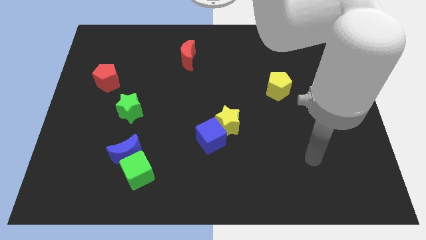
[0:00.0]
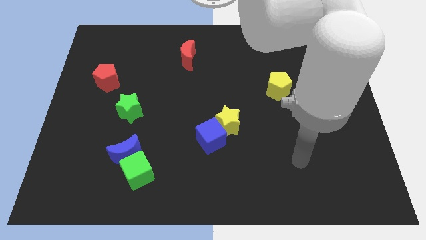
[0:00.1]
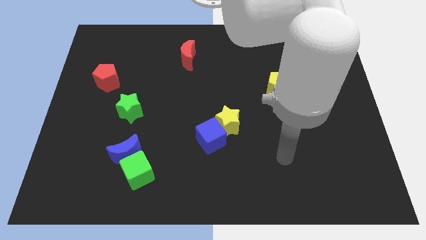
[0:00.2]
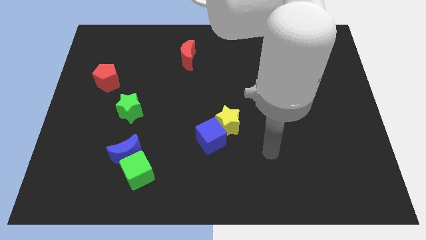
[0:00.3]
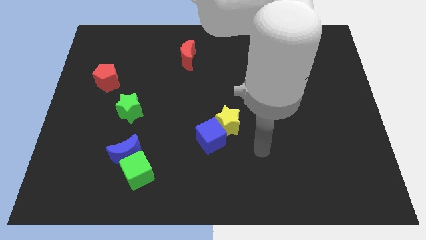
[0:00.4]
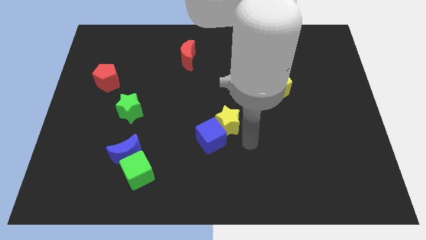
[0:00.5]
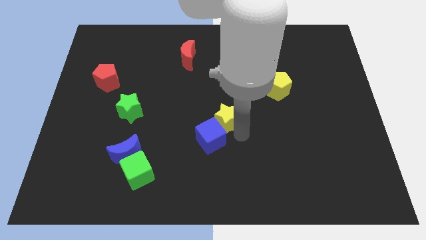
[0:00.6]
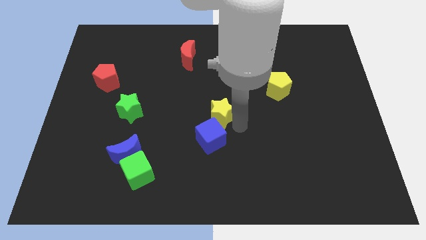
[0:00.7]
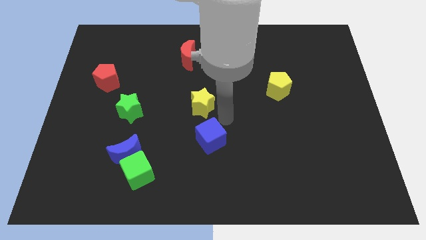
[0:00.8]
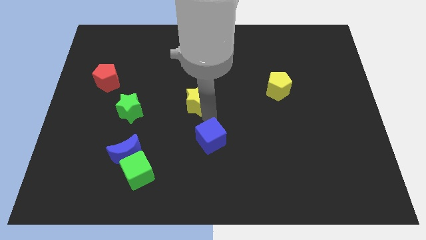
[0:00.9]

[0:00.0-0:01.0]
separate the blue cube from the yellow star

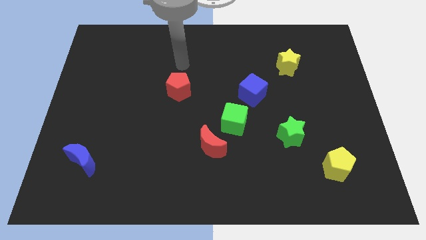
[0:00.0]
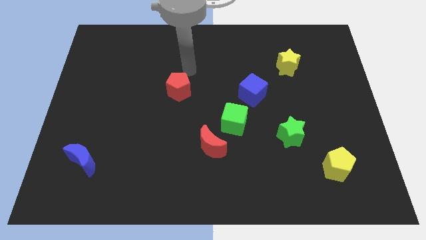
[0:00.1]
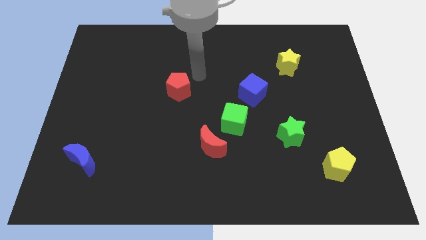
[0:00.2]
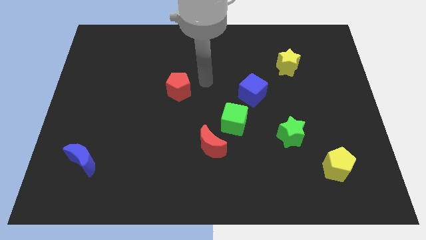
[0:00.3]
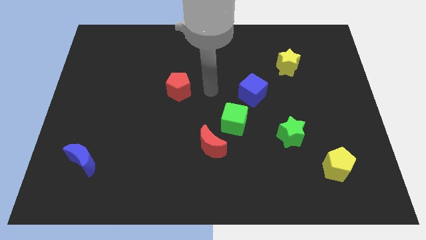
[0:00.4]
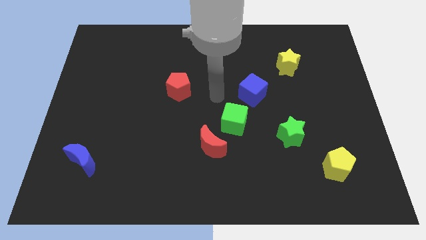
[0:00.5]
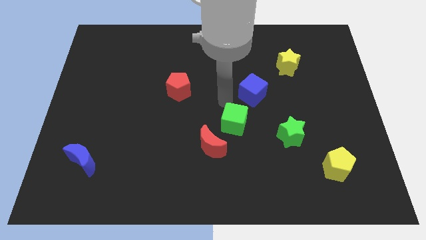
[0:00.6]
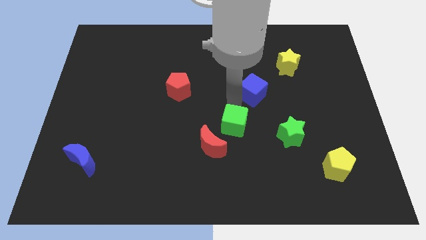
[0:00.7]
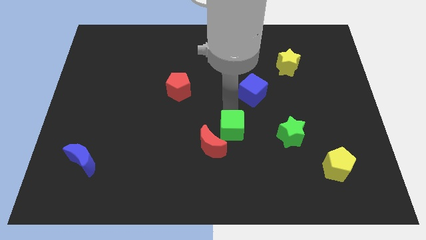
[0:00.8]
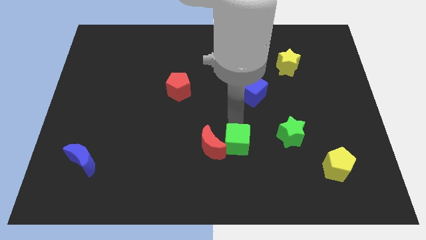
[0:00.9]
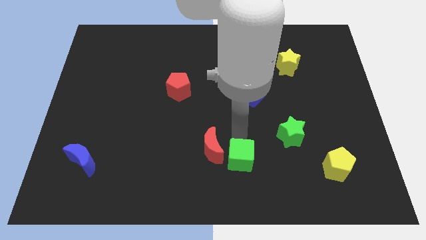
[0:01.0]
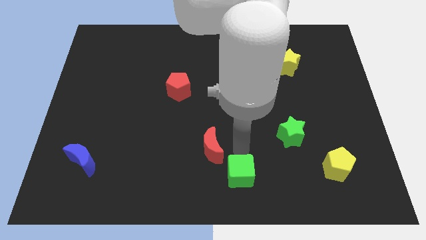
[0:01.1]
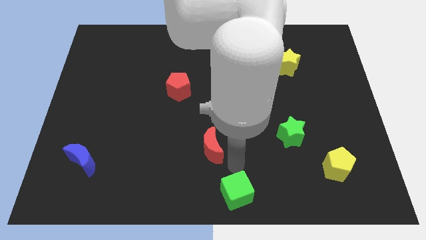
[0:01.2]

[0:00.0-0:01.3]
pull the red moon apart from the green cube

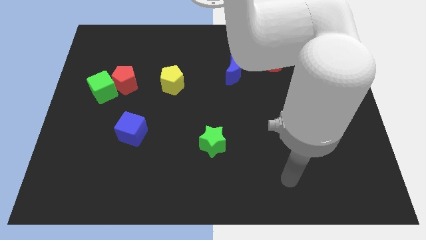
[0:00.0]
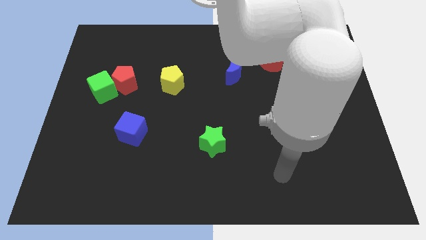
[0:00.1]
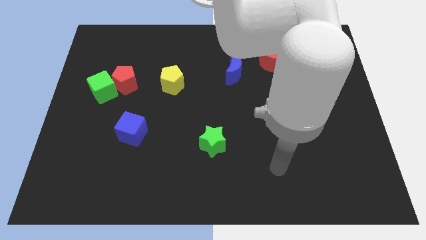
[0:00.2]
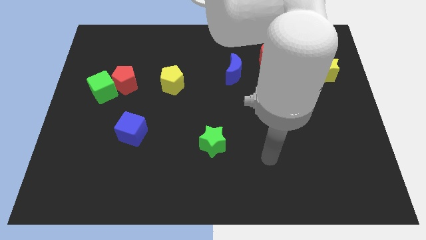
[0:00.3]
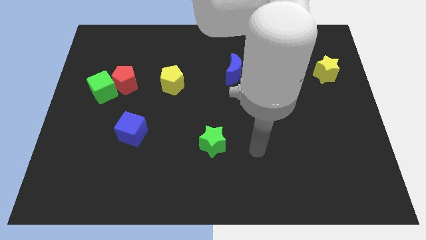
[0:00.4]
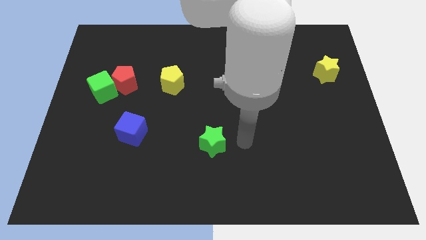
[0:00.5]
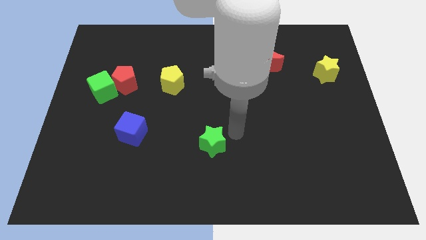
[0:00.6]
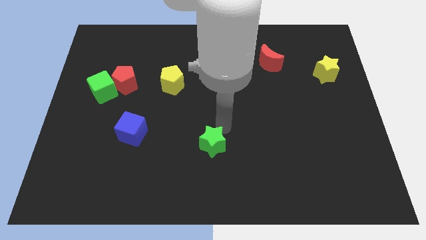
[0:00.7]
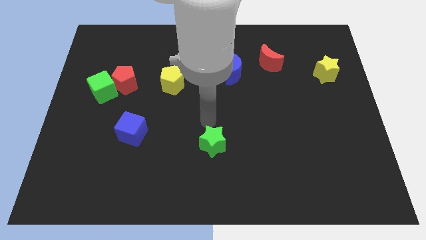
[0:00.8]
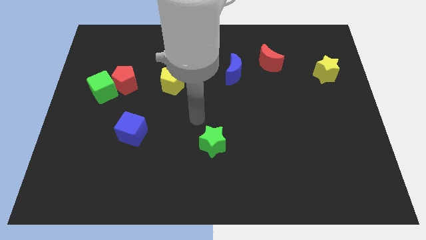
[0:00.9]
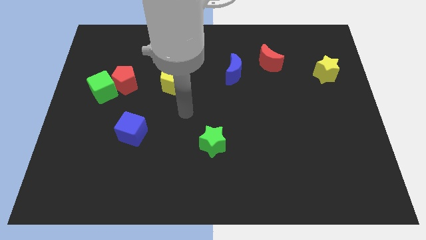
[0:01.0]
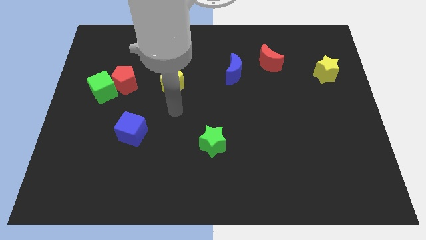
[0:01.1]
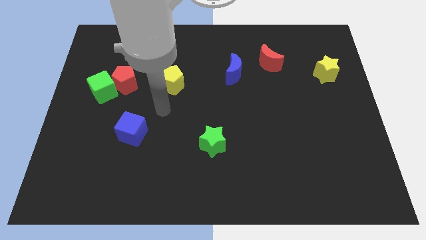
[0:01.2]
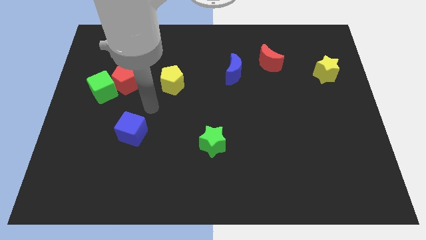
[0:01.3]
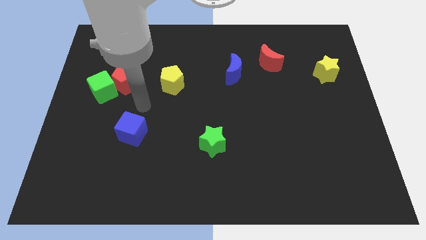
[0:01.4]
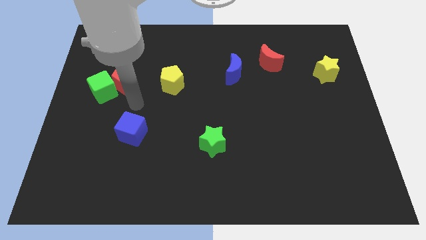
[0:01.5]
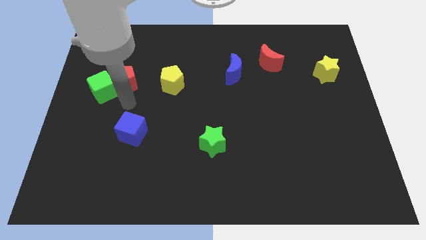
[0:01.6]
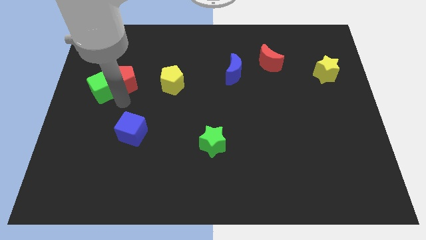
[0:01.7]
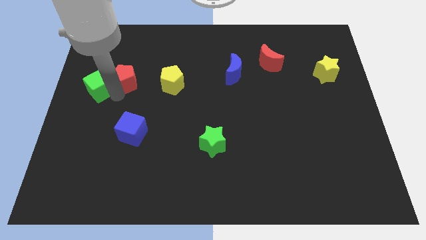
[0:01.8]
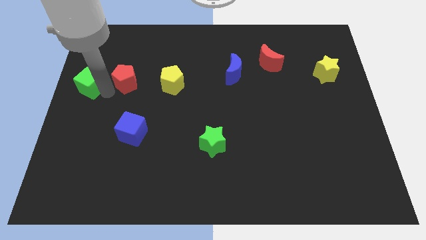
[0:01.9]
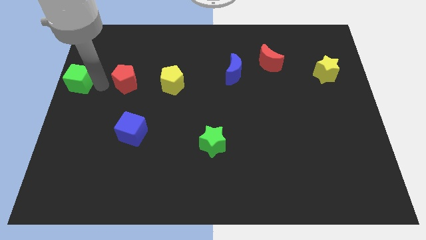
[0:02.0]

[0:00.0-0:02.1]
move the red pentagon away from the green cube

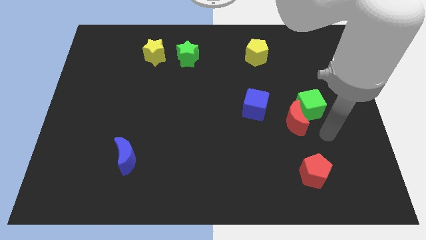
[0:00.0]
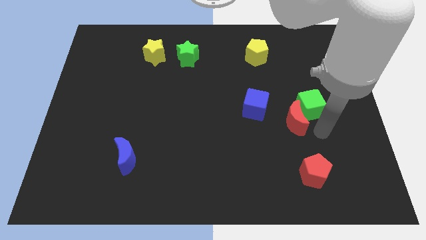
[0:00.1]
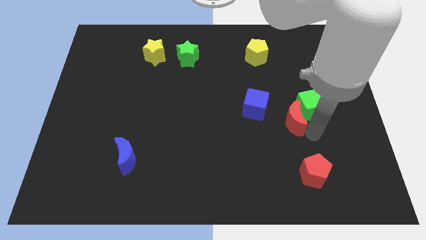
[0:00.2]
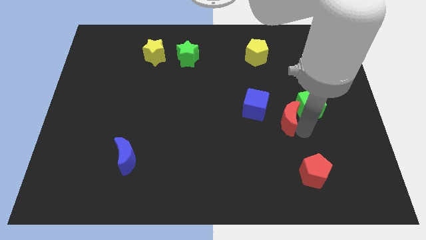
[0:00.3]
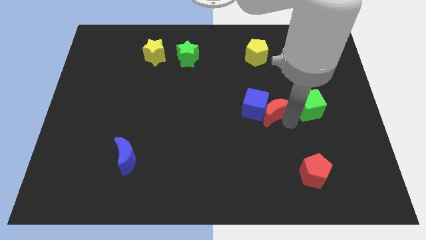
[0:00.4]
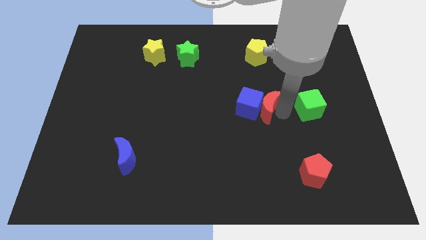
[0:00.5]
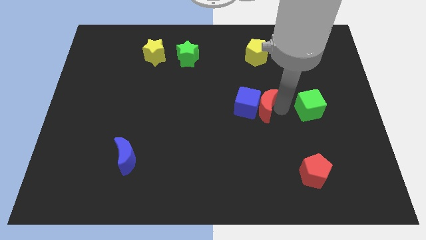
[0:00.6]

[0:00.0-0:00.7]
move the green cube away from the red moon

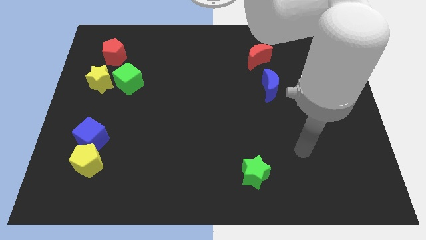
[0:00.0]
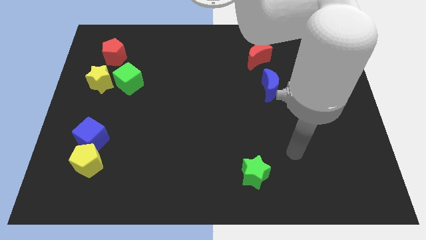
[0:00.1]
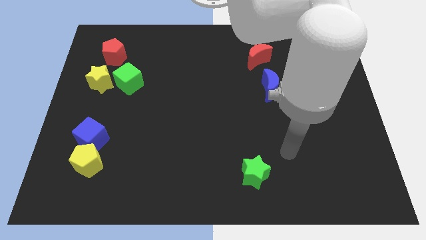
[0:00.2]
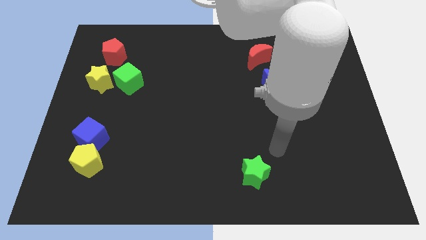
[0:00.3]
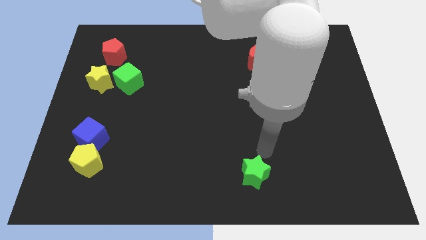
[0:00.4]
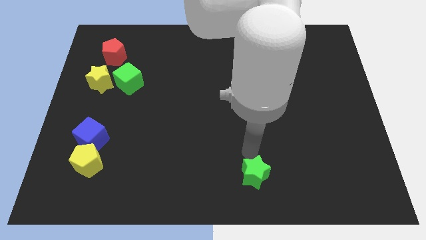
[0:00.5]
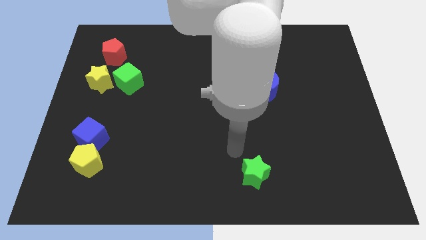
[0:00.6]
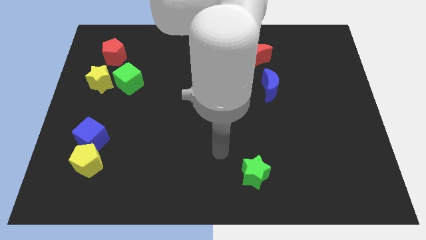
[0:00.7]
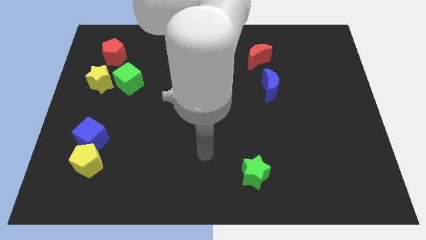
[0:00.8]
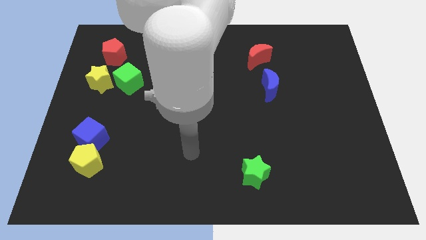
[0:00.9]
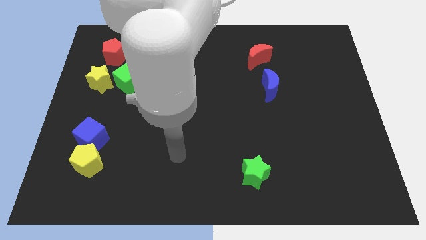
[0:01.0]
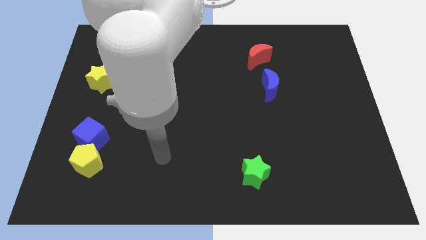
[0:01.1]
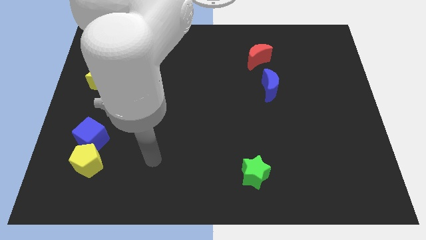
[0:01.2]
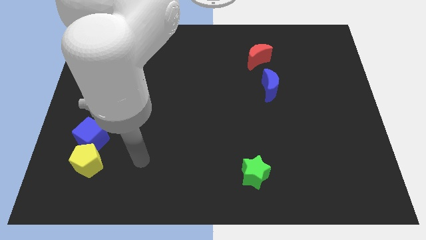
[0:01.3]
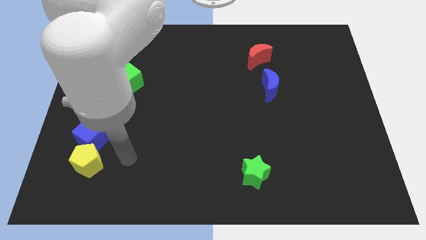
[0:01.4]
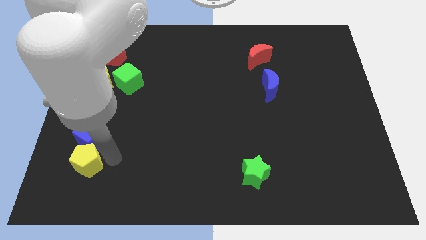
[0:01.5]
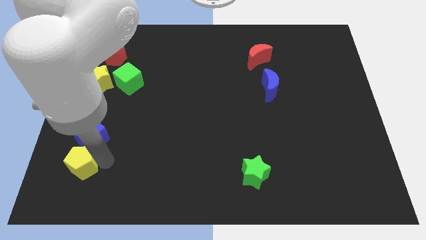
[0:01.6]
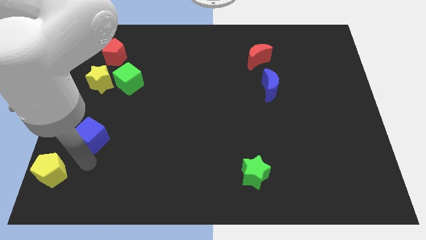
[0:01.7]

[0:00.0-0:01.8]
move the blue cube away from the yellow pentagon

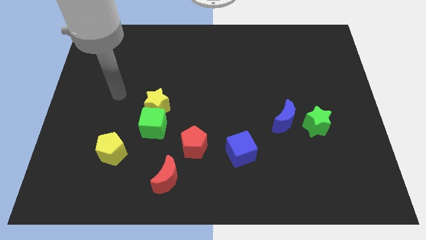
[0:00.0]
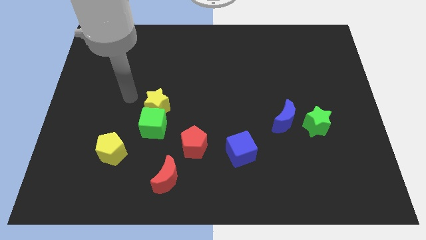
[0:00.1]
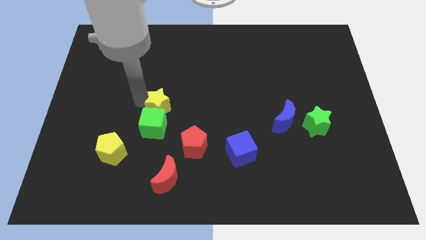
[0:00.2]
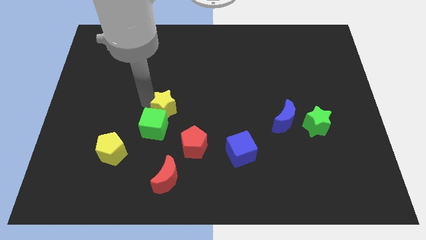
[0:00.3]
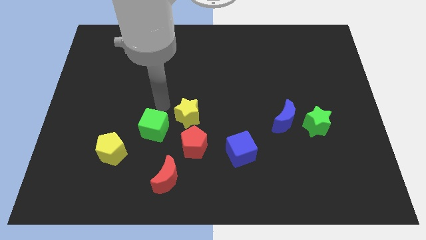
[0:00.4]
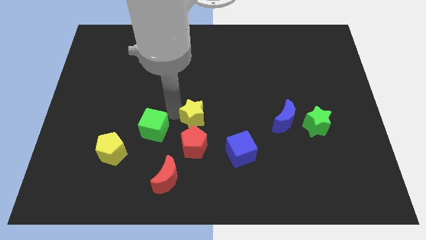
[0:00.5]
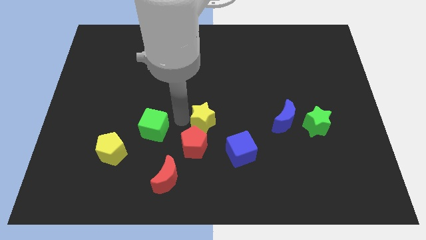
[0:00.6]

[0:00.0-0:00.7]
separate the green cube from the yellow star

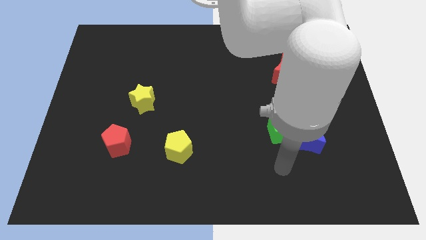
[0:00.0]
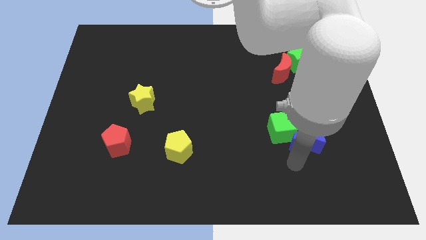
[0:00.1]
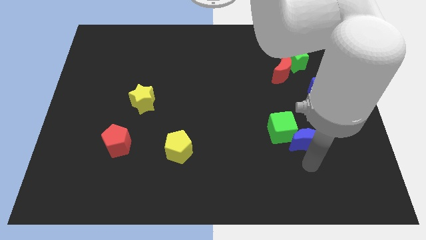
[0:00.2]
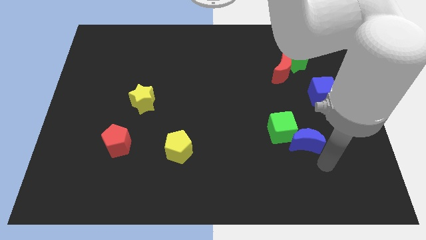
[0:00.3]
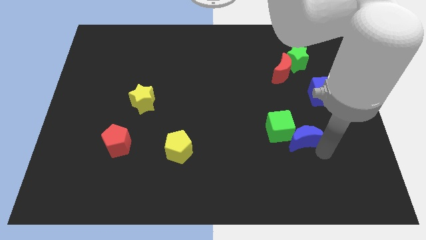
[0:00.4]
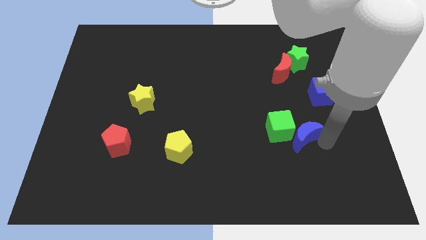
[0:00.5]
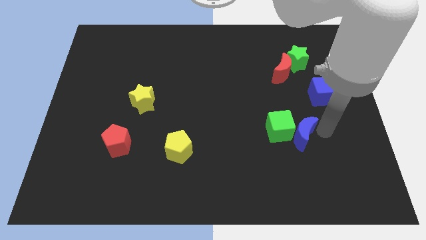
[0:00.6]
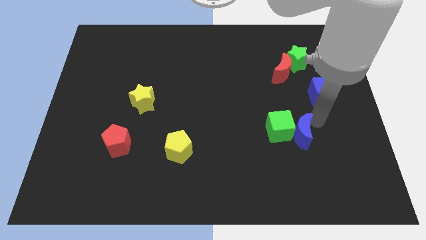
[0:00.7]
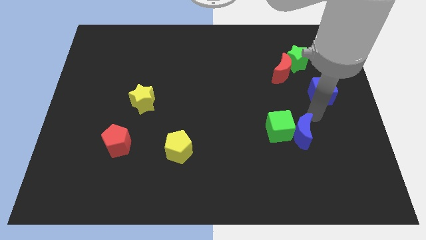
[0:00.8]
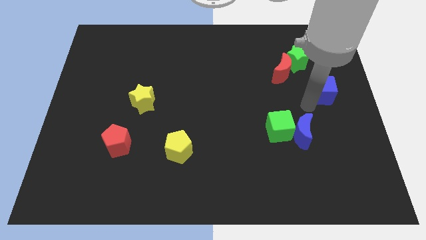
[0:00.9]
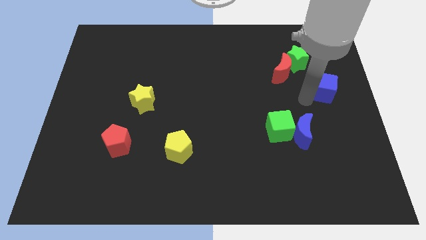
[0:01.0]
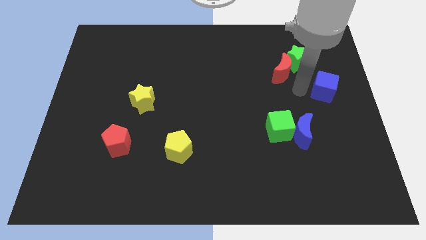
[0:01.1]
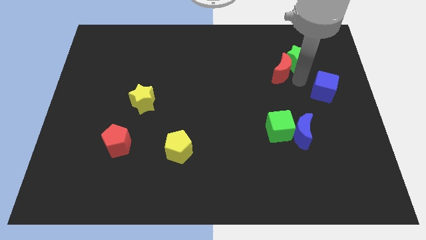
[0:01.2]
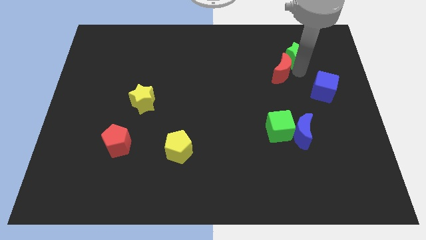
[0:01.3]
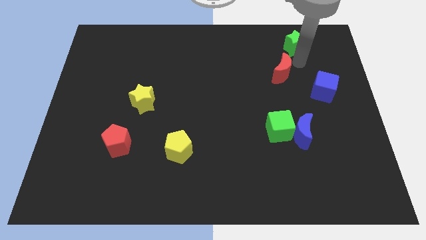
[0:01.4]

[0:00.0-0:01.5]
pull the red moon apart from the green star

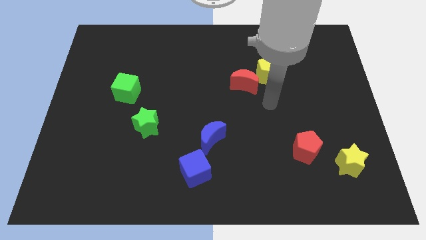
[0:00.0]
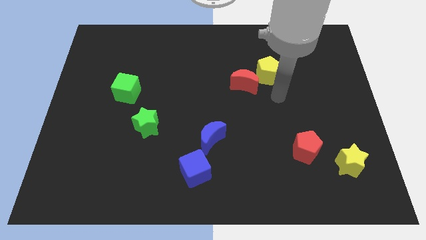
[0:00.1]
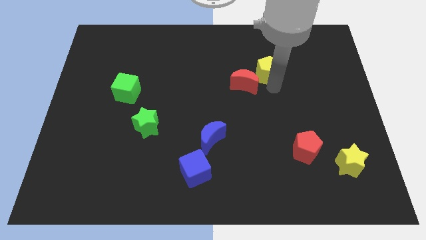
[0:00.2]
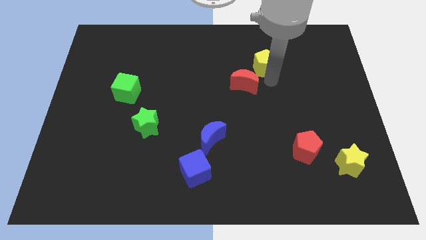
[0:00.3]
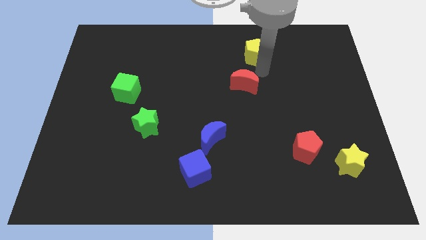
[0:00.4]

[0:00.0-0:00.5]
pull the red moon apart from the yellow pentagon
